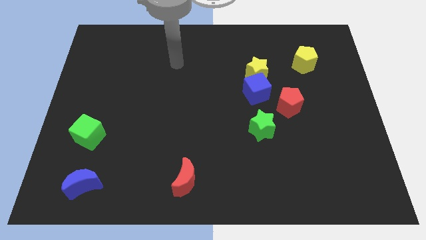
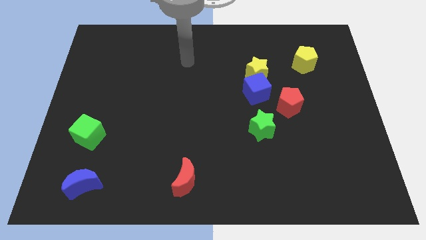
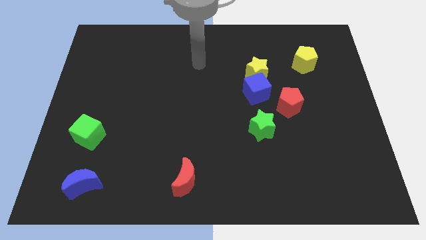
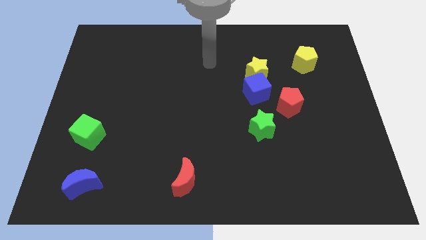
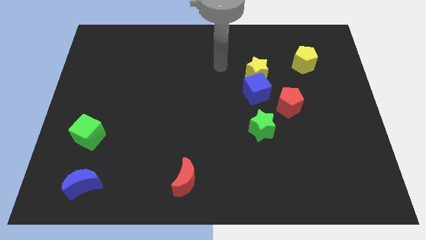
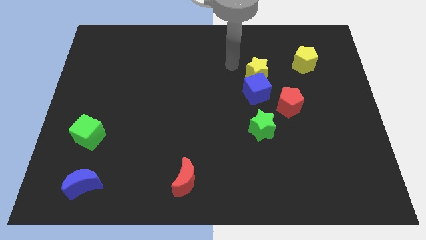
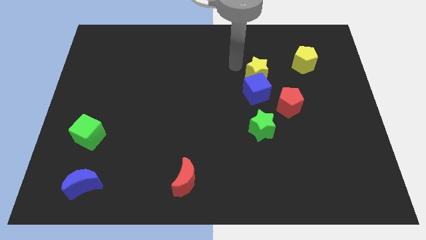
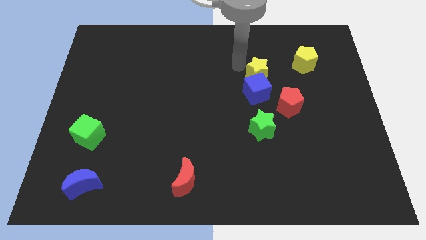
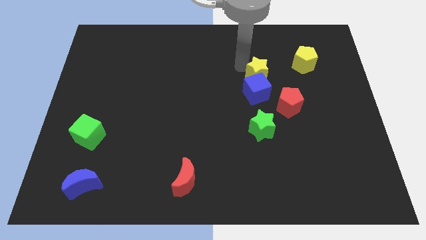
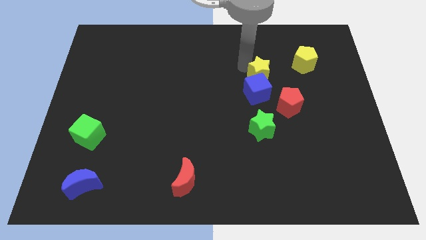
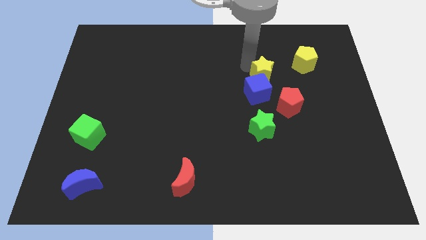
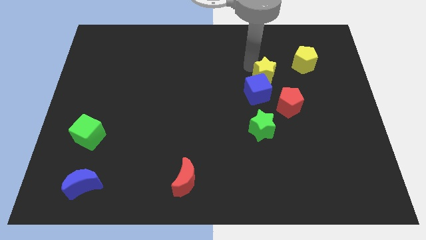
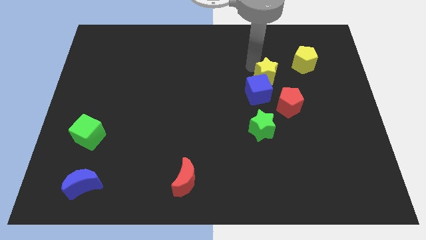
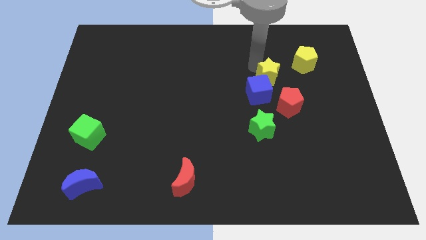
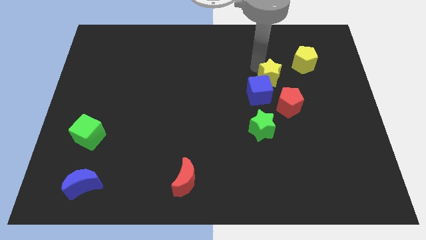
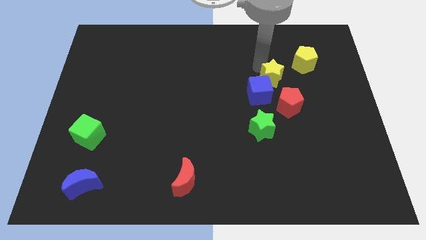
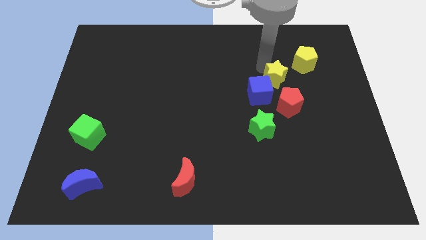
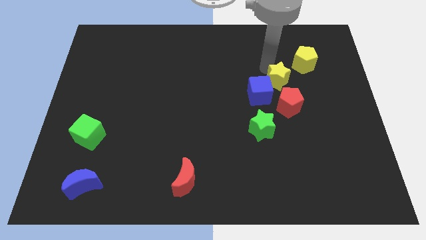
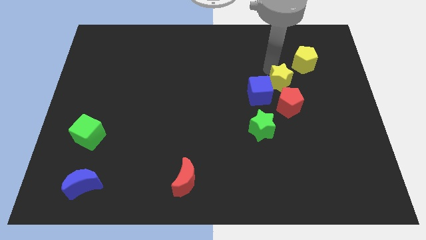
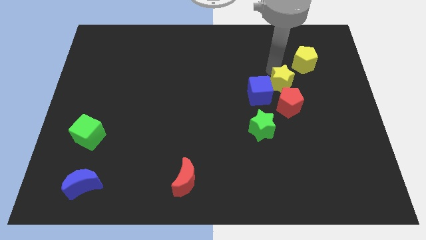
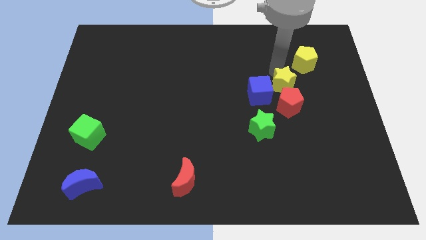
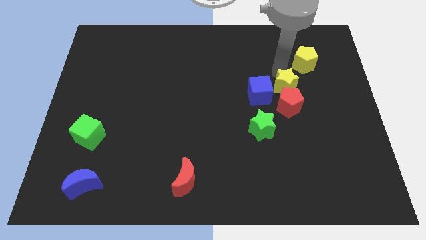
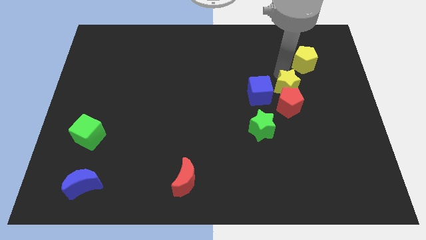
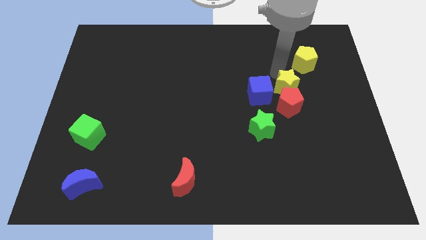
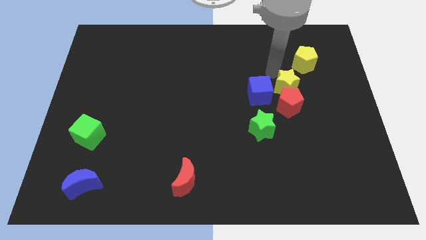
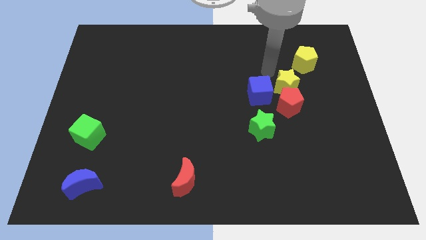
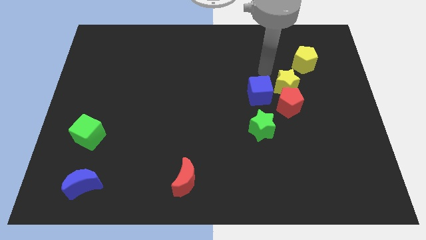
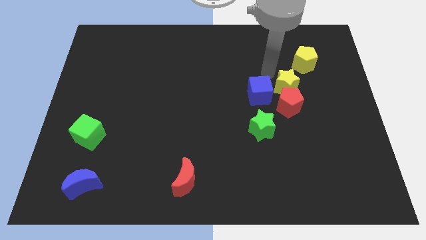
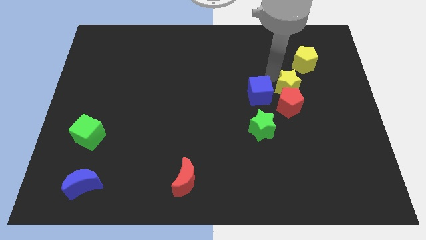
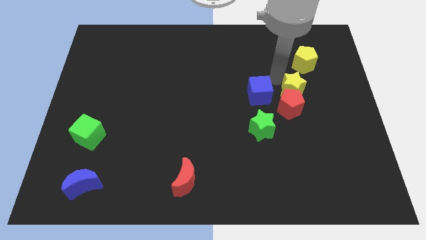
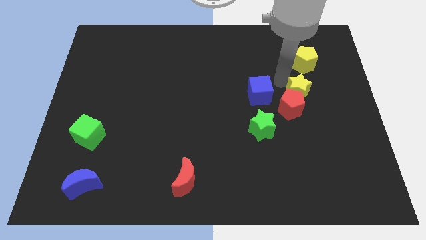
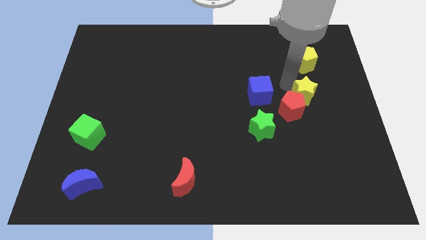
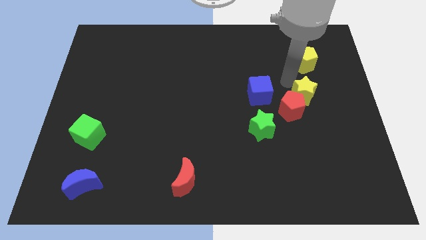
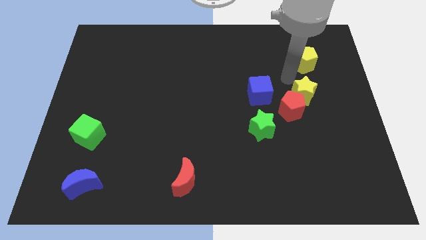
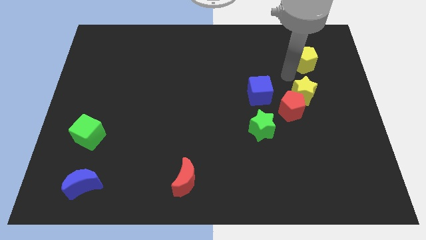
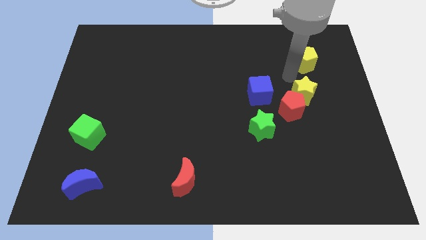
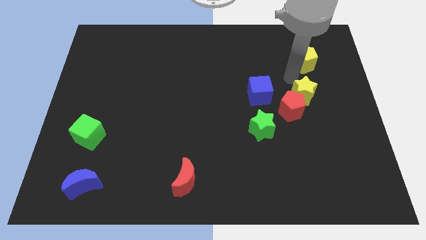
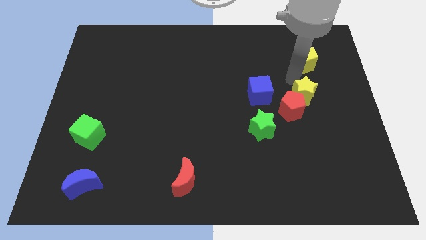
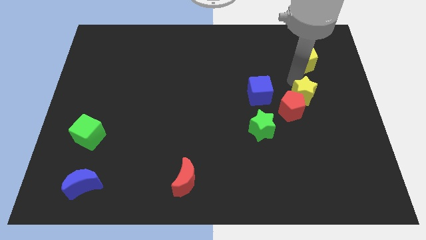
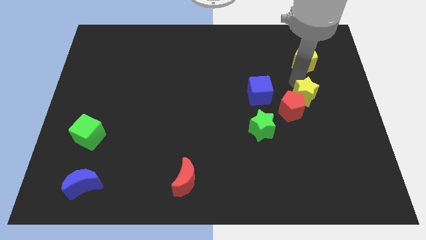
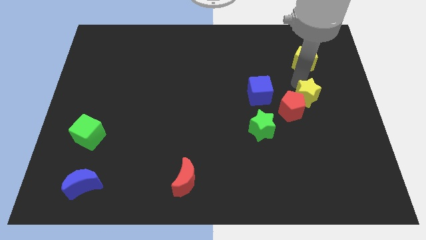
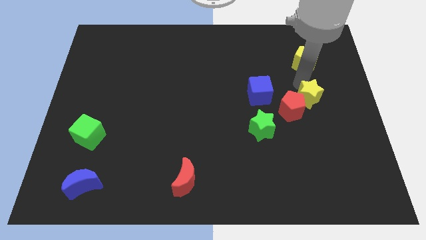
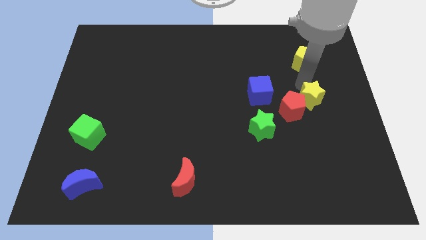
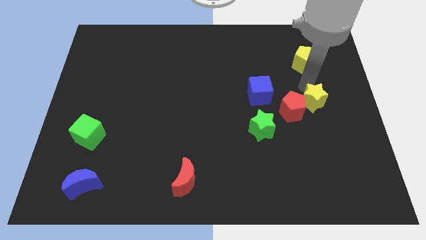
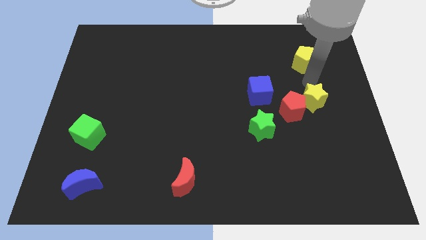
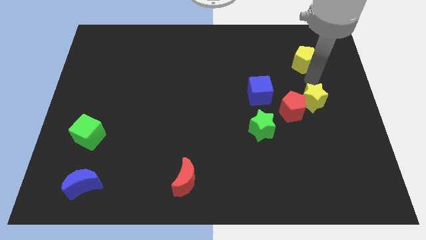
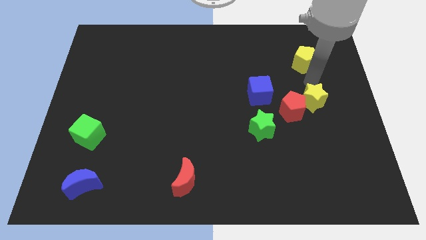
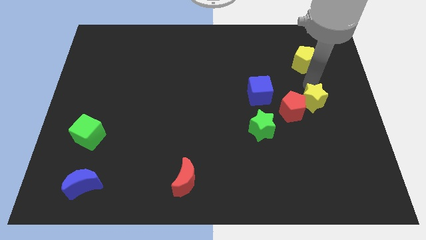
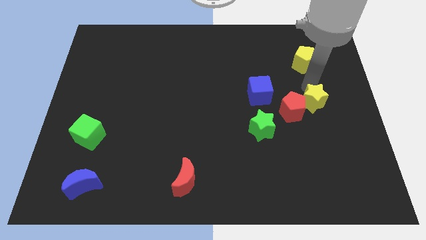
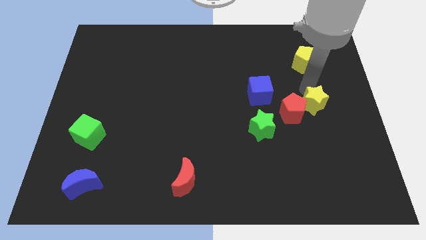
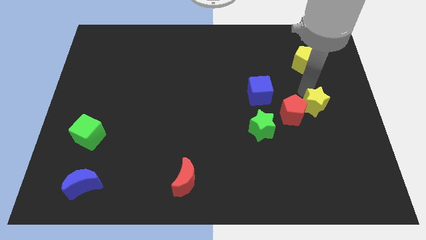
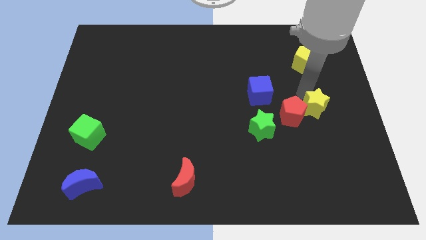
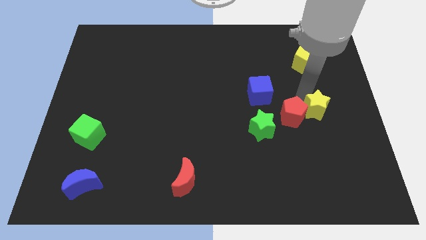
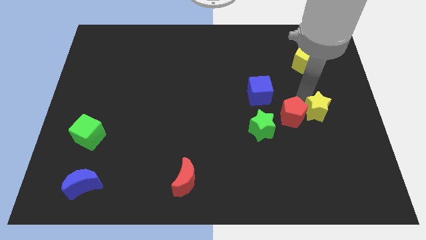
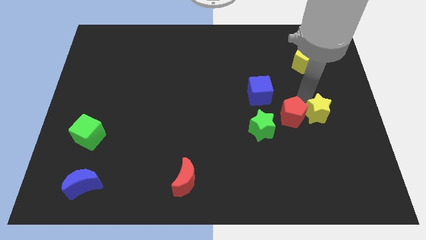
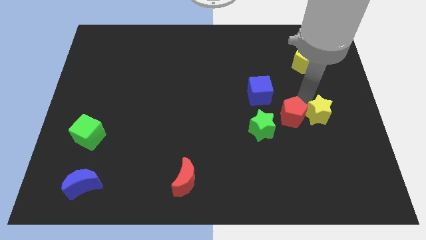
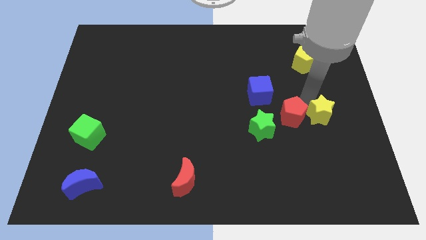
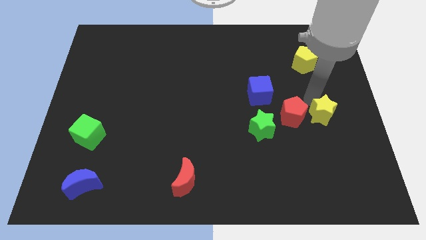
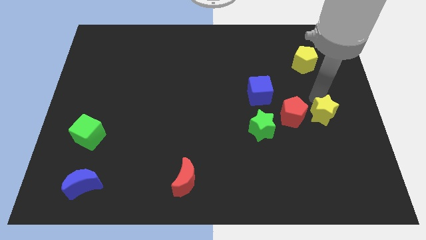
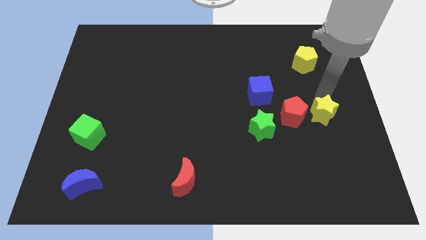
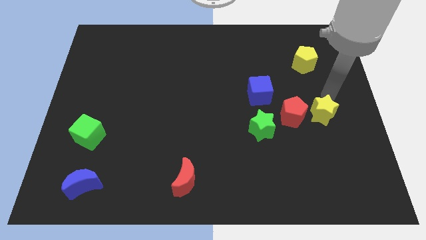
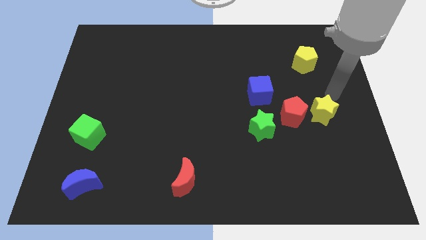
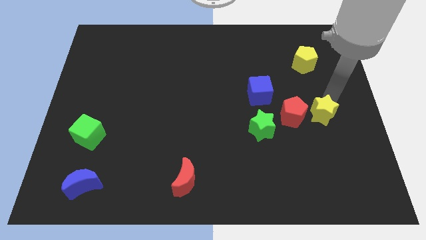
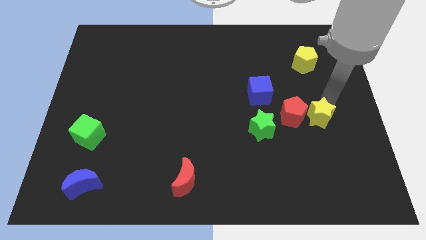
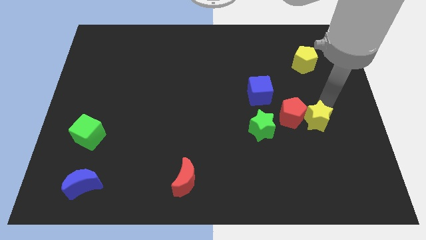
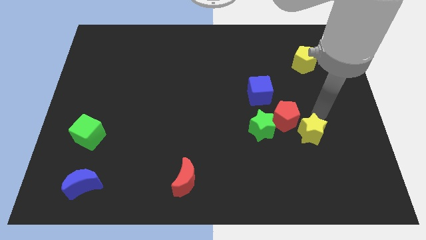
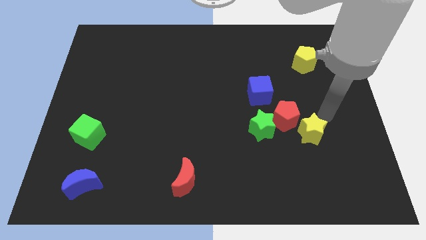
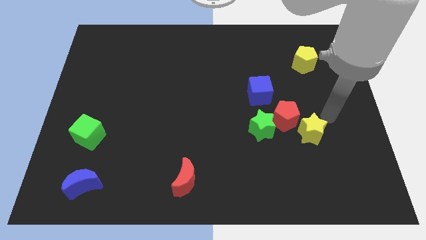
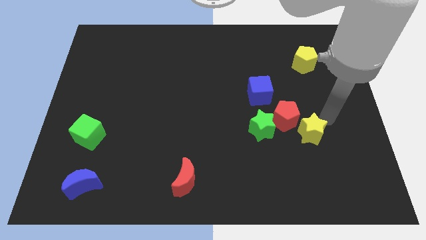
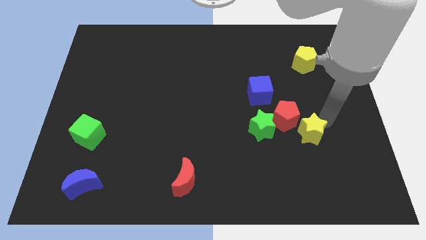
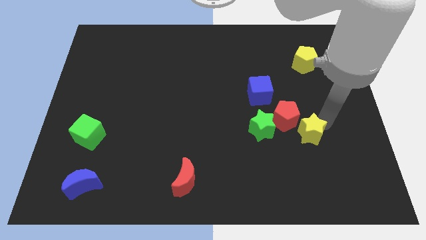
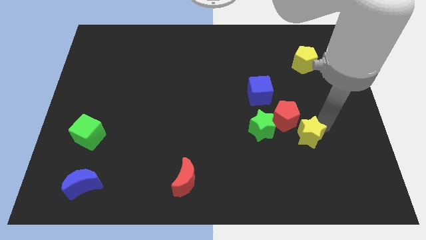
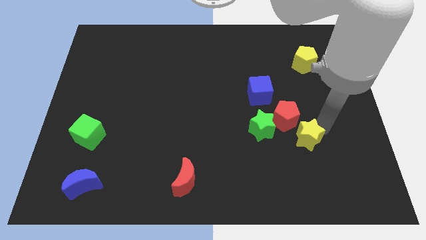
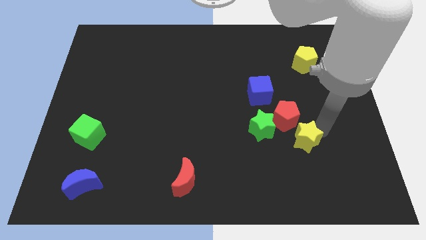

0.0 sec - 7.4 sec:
move the yellow star to the bottom right side of the green star
